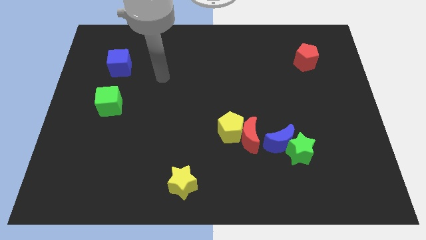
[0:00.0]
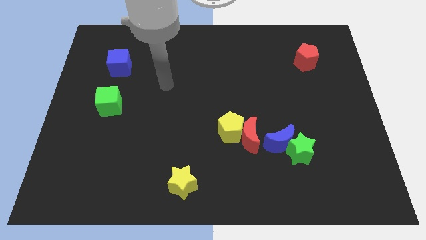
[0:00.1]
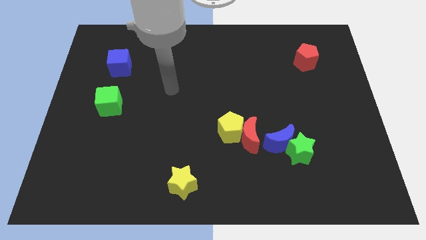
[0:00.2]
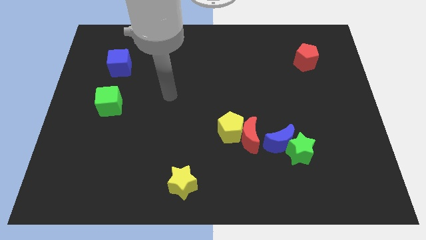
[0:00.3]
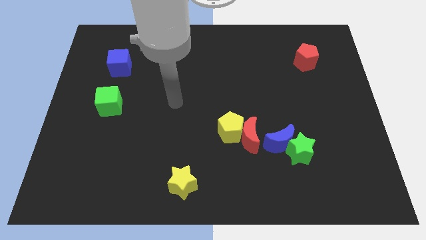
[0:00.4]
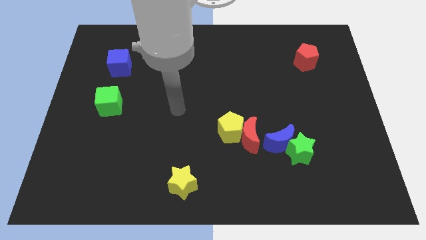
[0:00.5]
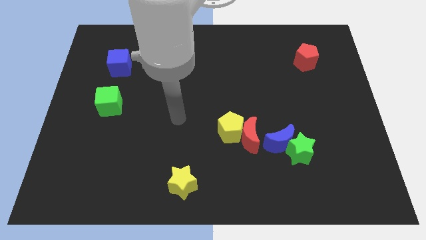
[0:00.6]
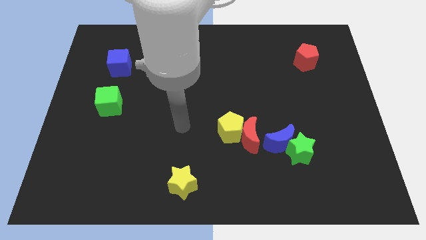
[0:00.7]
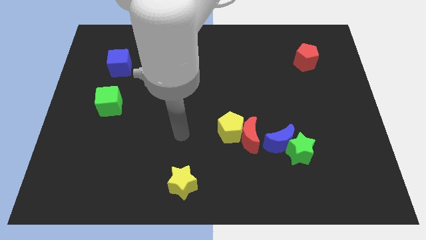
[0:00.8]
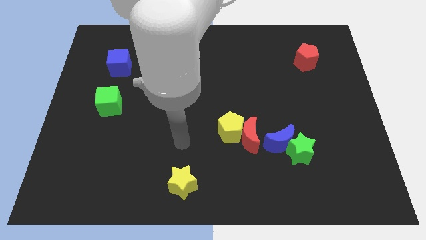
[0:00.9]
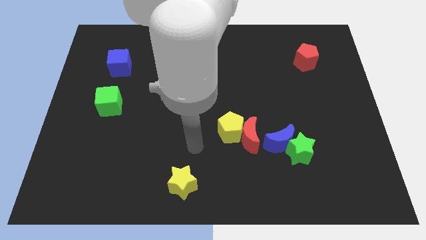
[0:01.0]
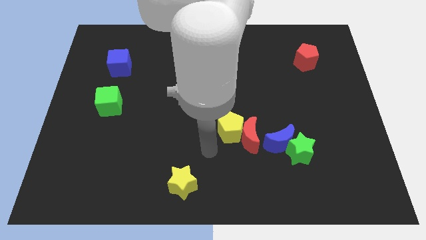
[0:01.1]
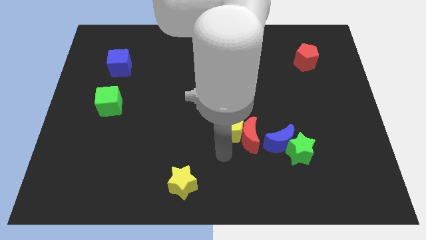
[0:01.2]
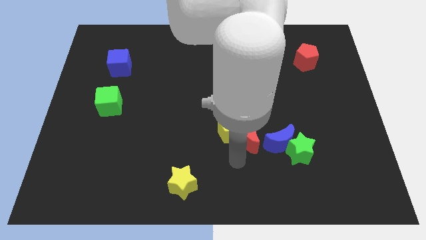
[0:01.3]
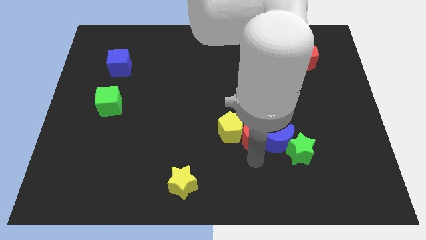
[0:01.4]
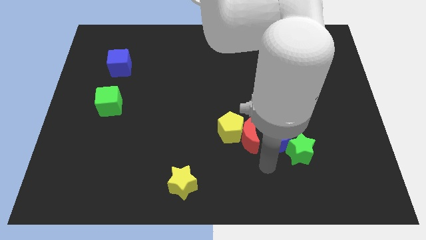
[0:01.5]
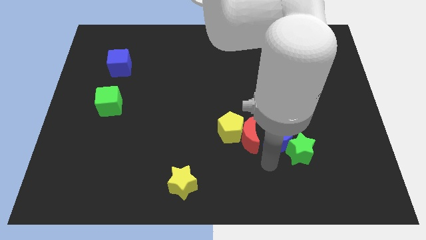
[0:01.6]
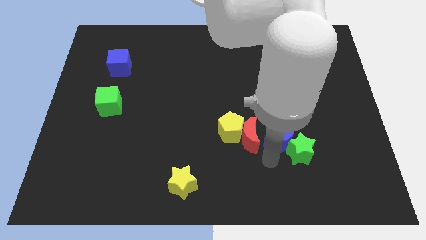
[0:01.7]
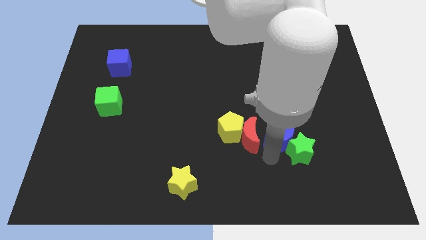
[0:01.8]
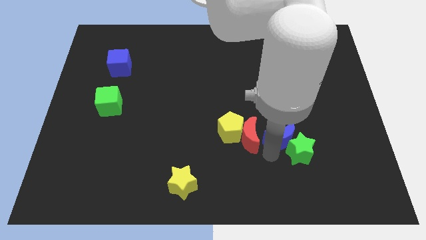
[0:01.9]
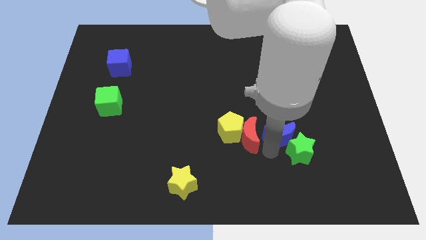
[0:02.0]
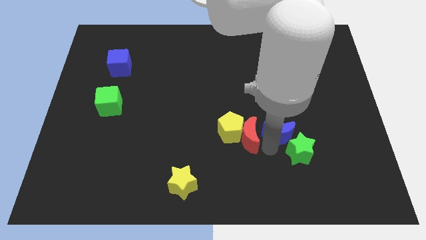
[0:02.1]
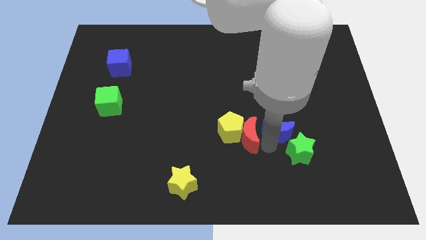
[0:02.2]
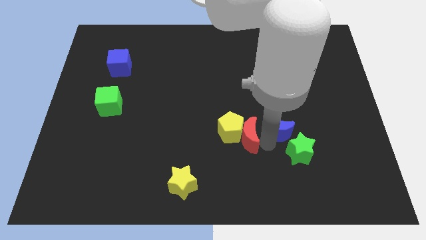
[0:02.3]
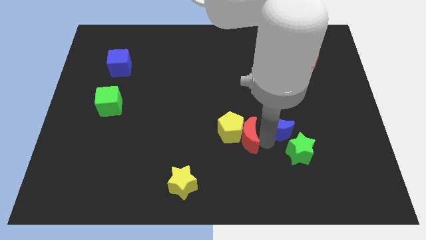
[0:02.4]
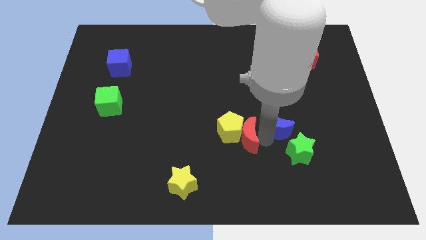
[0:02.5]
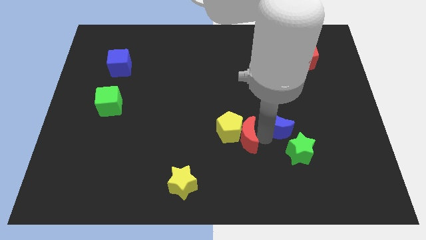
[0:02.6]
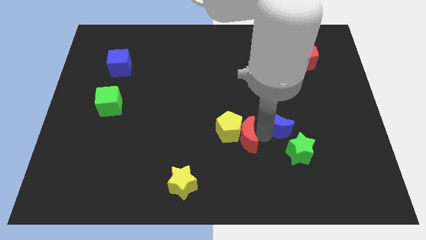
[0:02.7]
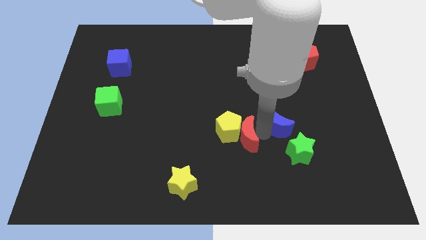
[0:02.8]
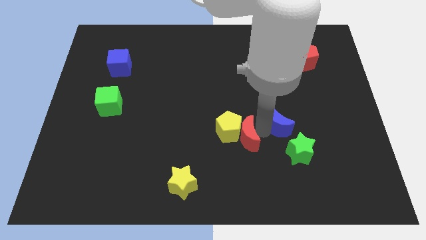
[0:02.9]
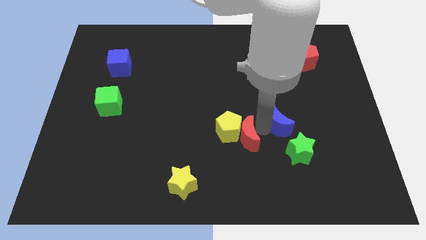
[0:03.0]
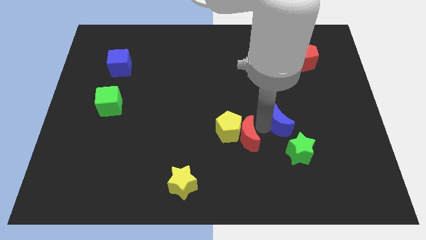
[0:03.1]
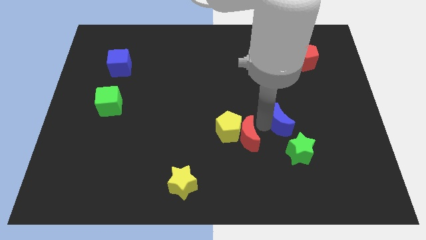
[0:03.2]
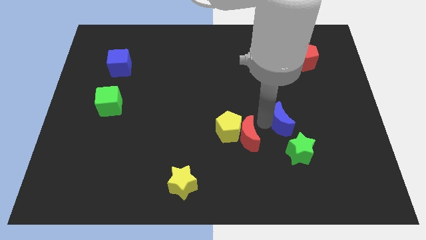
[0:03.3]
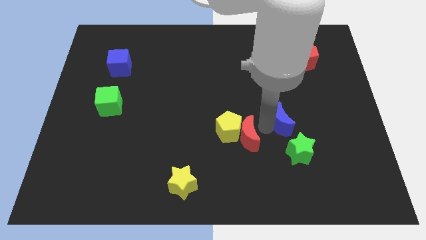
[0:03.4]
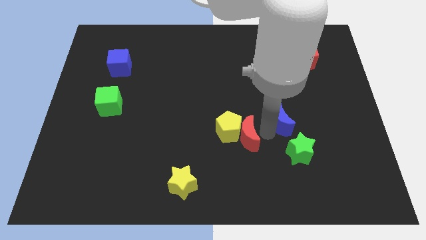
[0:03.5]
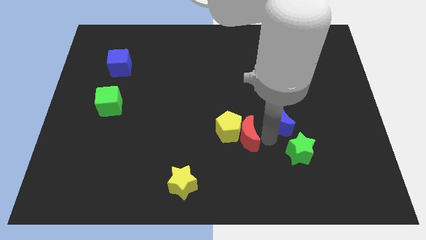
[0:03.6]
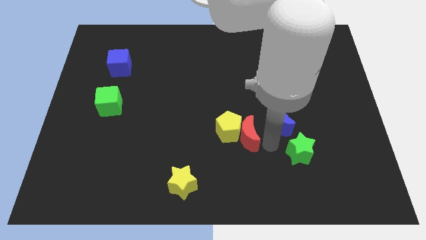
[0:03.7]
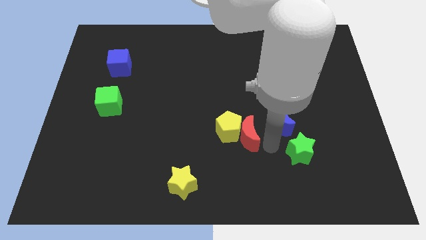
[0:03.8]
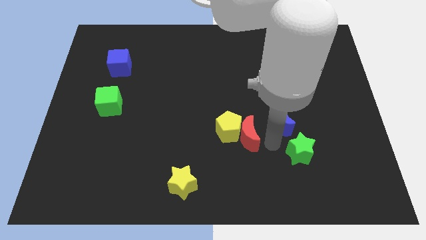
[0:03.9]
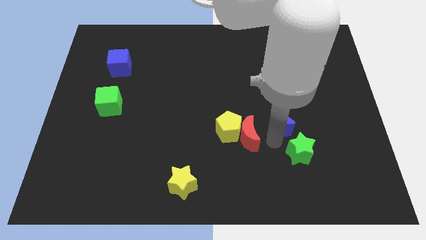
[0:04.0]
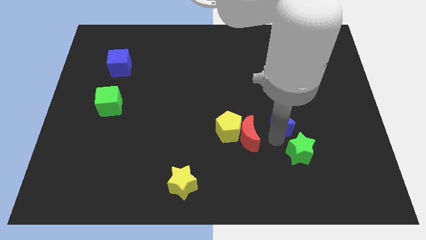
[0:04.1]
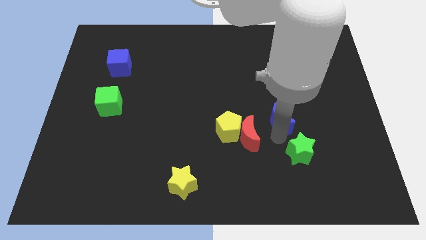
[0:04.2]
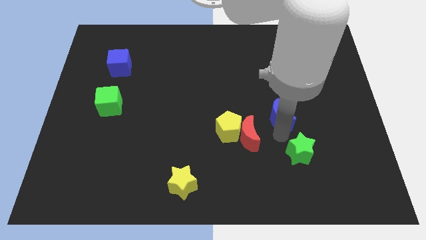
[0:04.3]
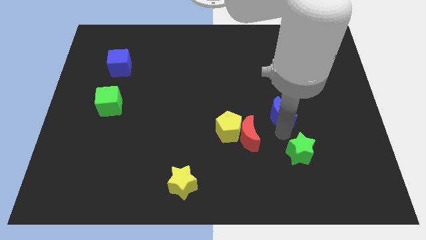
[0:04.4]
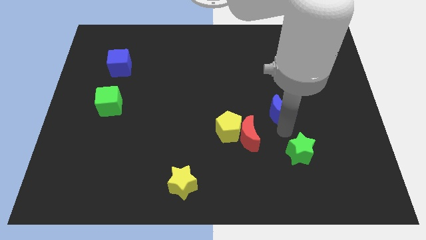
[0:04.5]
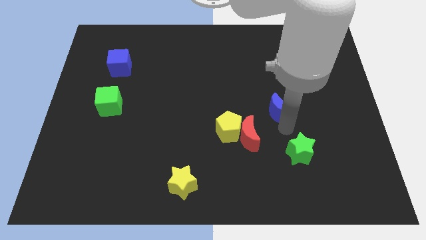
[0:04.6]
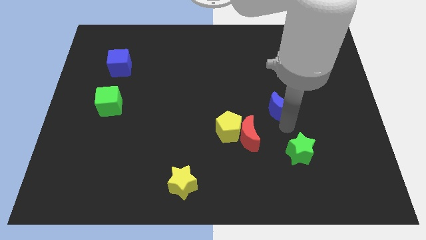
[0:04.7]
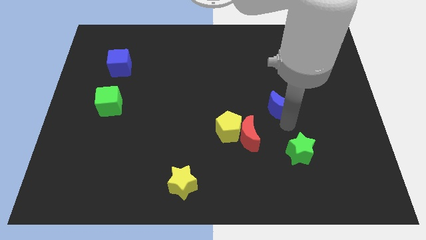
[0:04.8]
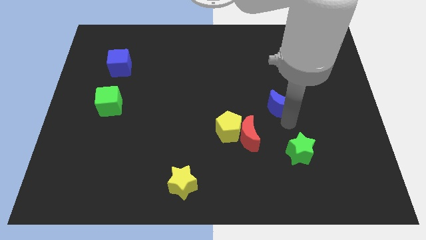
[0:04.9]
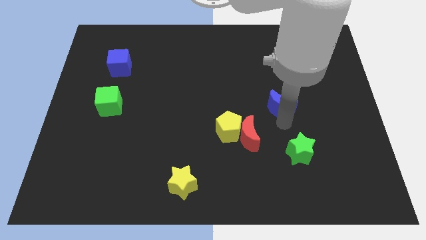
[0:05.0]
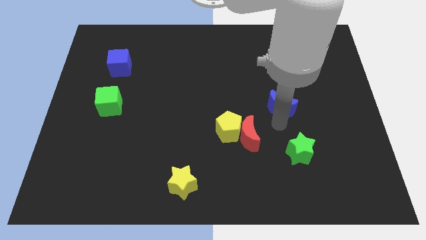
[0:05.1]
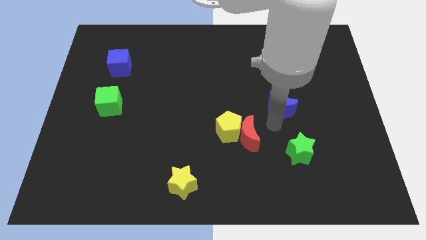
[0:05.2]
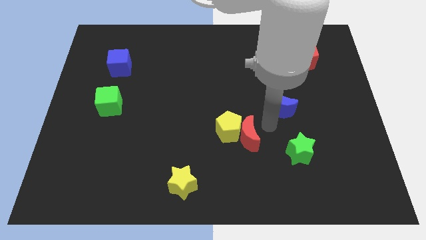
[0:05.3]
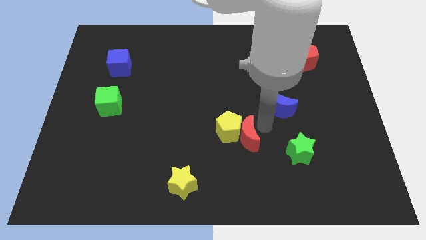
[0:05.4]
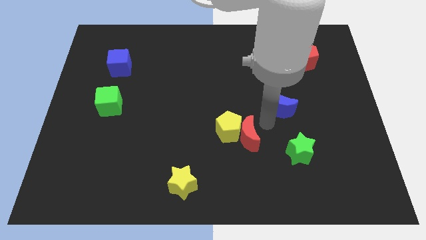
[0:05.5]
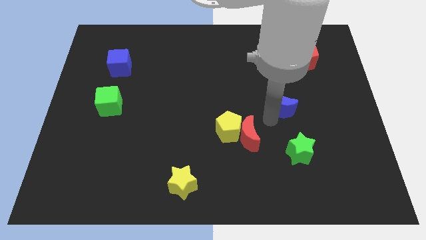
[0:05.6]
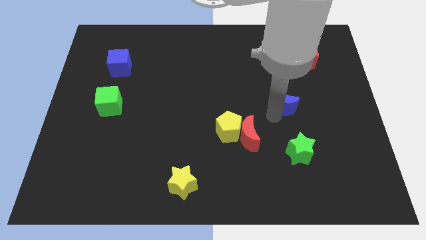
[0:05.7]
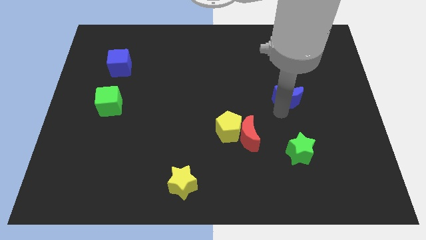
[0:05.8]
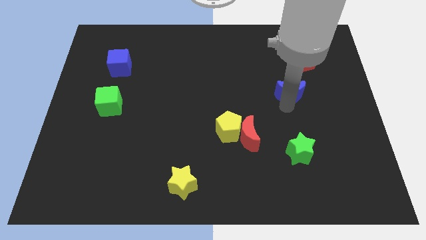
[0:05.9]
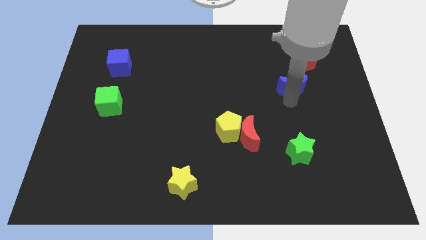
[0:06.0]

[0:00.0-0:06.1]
push the blue moon to the bottom left side of the red pentagon
